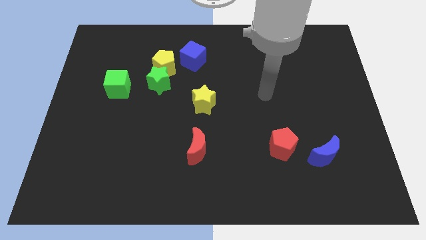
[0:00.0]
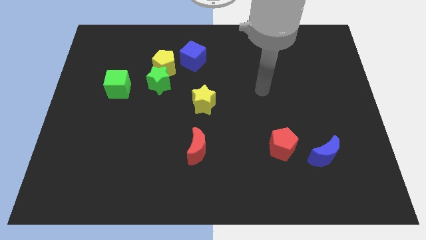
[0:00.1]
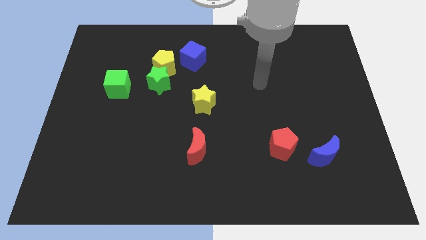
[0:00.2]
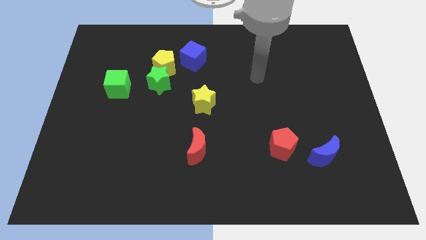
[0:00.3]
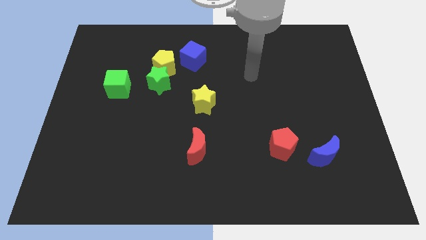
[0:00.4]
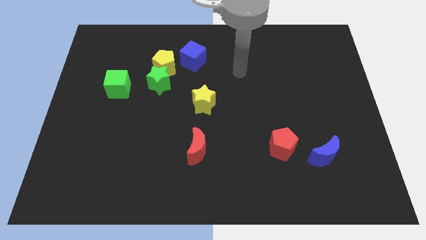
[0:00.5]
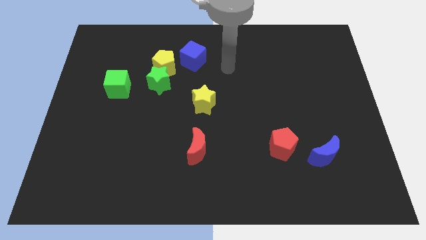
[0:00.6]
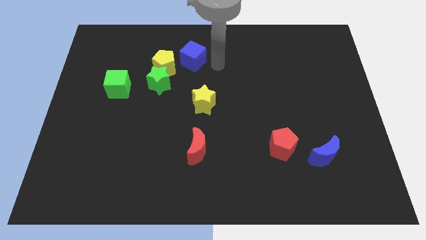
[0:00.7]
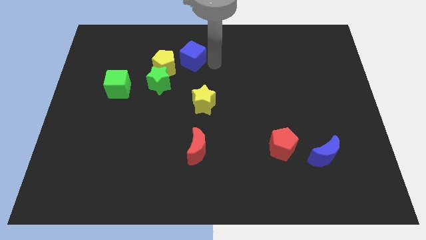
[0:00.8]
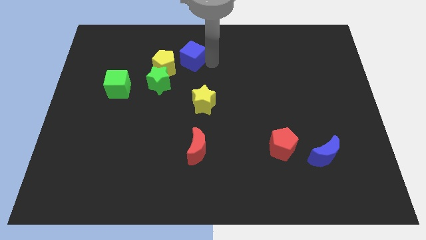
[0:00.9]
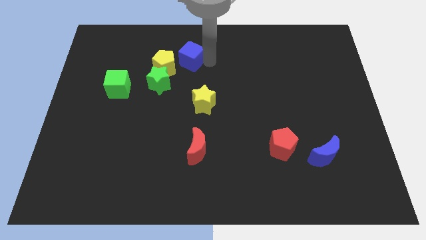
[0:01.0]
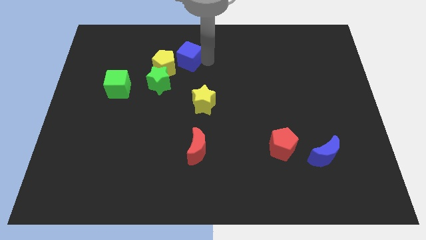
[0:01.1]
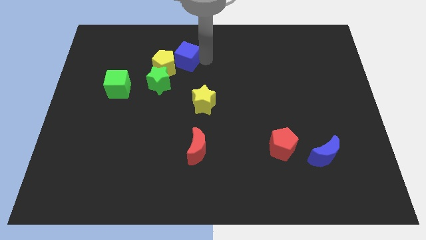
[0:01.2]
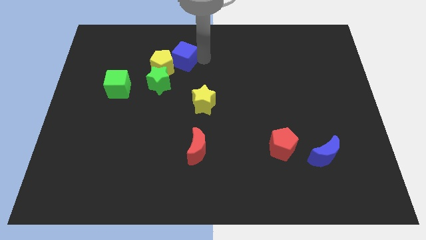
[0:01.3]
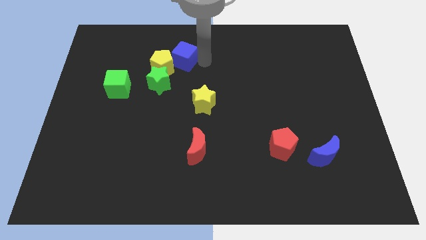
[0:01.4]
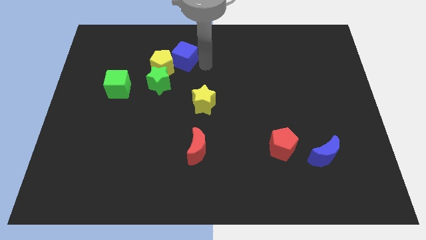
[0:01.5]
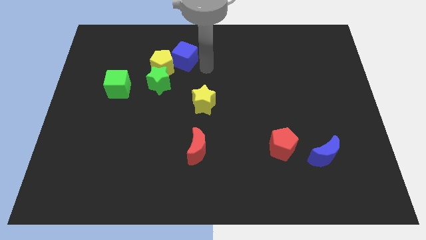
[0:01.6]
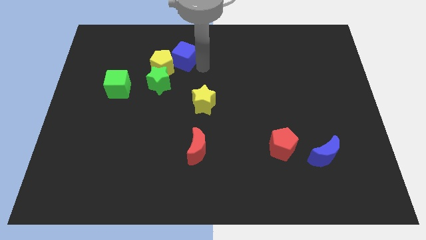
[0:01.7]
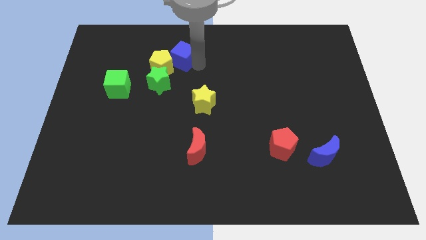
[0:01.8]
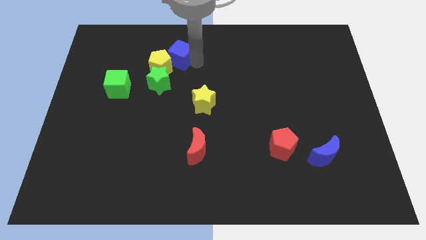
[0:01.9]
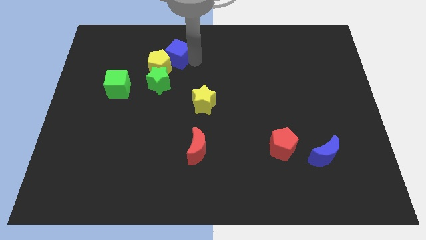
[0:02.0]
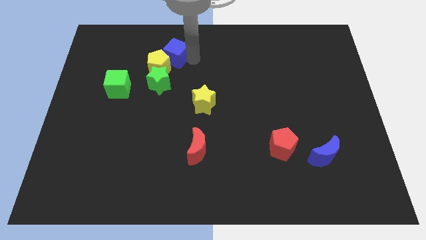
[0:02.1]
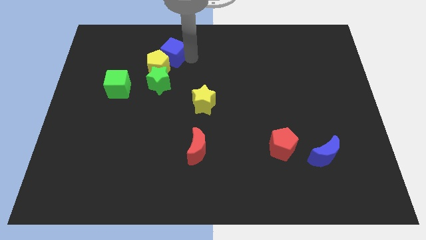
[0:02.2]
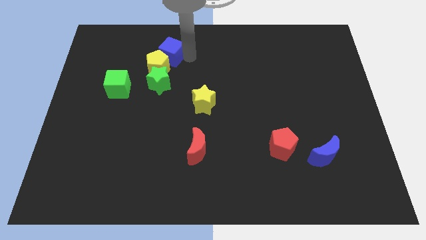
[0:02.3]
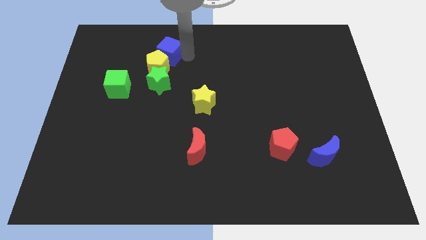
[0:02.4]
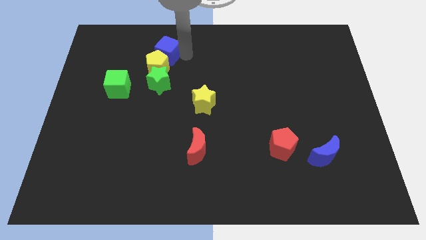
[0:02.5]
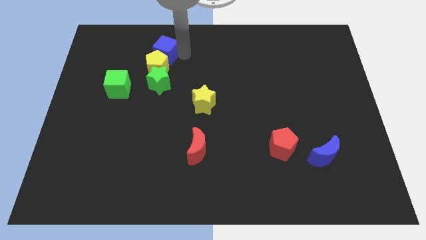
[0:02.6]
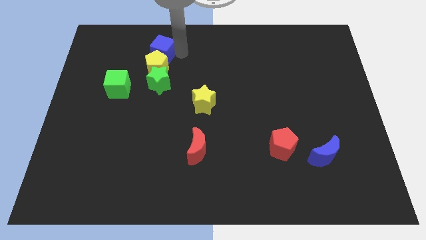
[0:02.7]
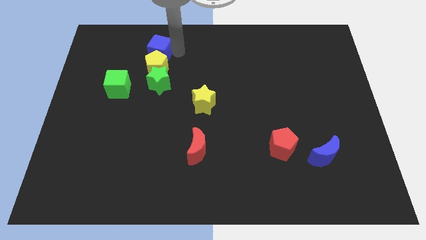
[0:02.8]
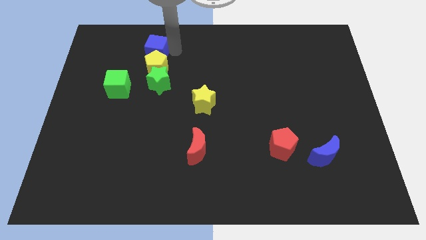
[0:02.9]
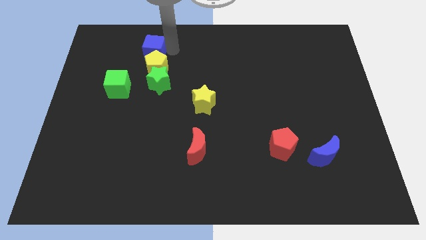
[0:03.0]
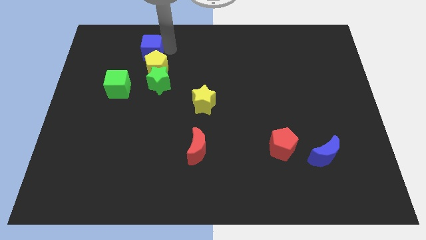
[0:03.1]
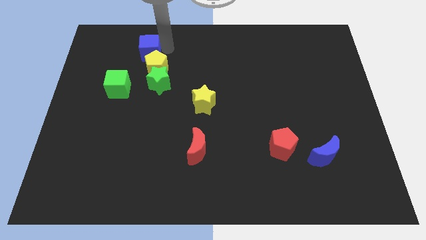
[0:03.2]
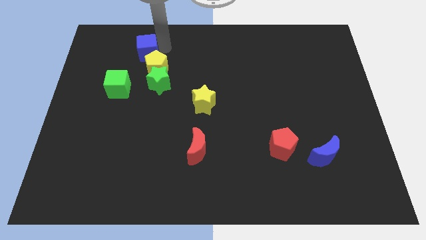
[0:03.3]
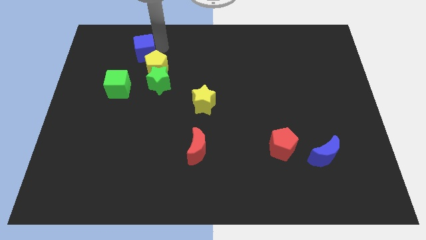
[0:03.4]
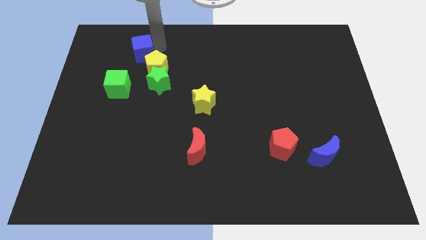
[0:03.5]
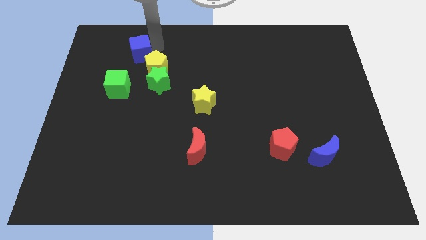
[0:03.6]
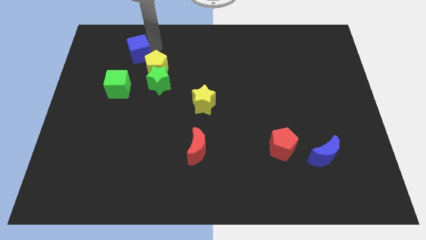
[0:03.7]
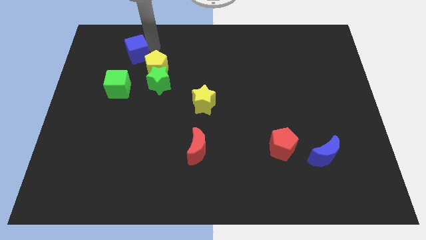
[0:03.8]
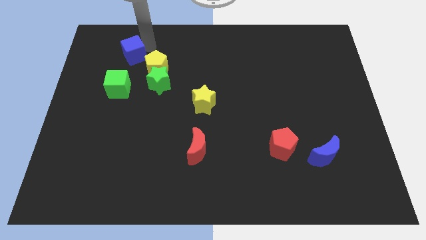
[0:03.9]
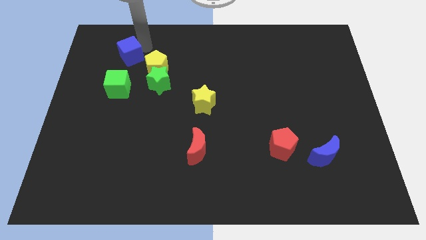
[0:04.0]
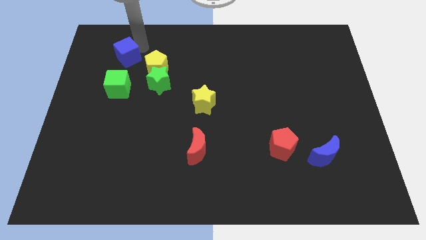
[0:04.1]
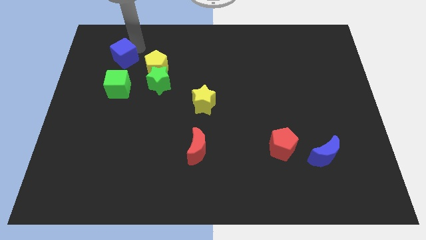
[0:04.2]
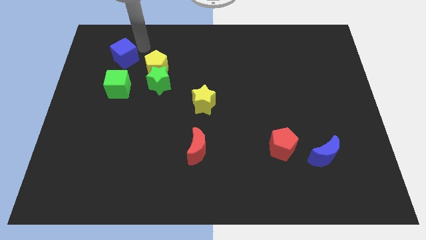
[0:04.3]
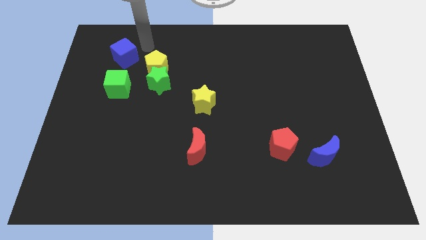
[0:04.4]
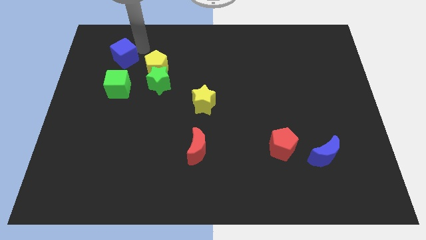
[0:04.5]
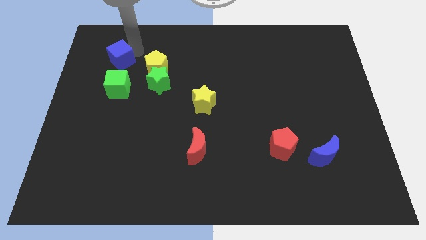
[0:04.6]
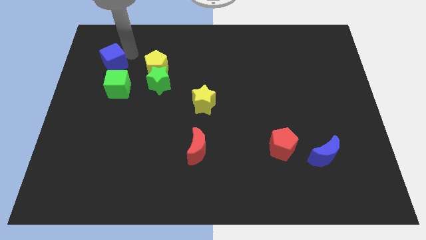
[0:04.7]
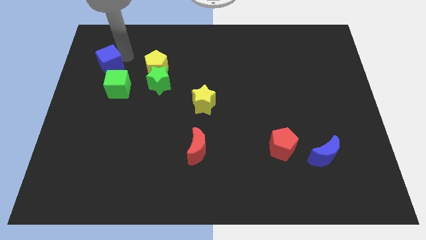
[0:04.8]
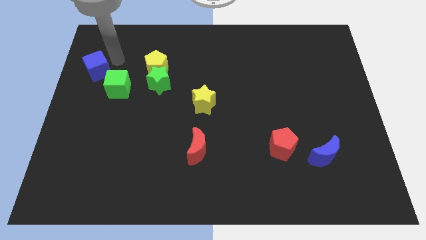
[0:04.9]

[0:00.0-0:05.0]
slide the blue cube to the left side of the board
